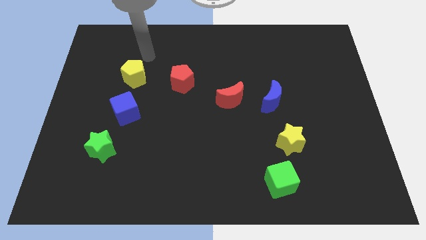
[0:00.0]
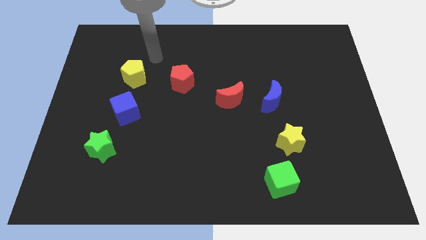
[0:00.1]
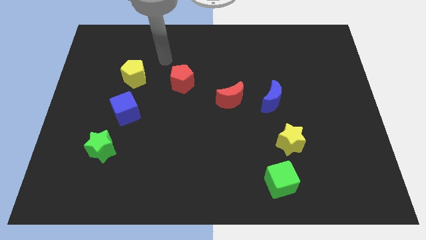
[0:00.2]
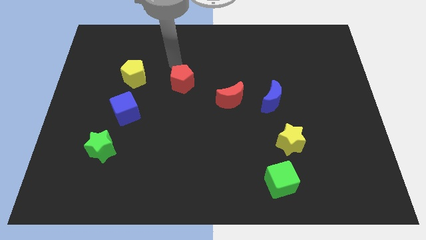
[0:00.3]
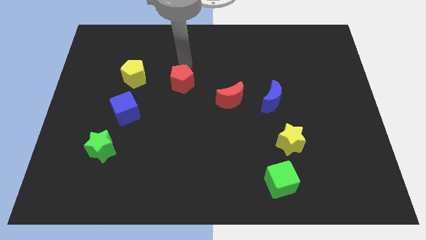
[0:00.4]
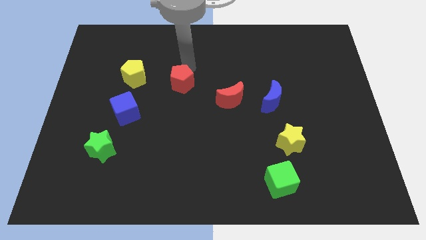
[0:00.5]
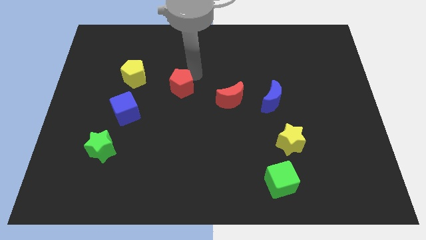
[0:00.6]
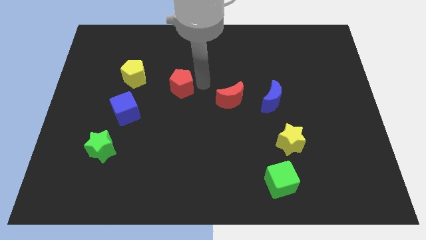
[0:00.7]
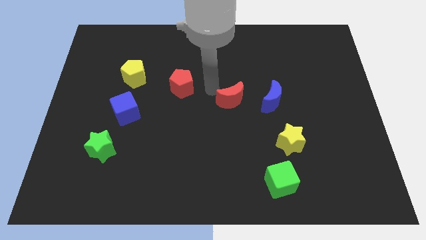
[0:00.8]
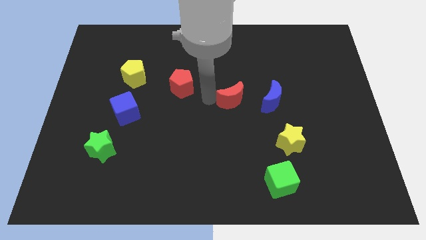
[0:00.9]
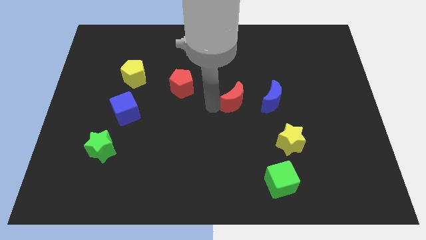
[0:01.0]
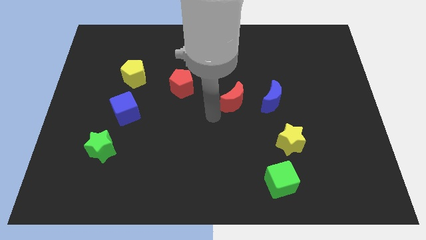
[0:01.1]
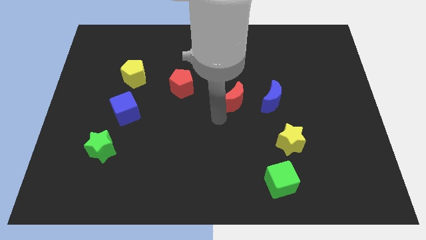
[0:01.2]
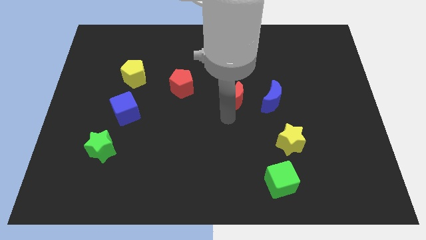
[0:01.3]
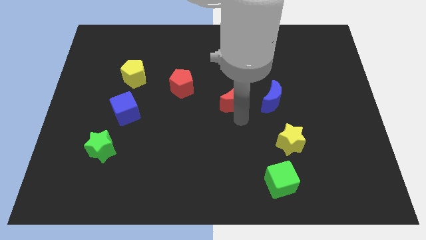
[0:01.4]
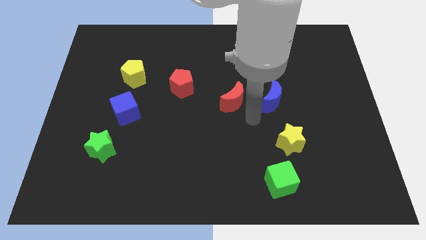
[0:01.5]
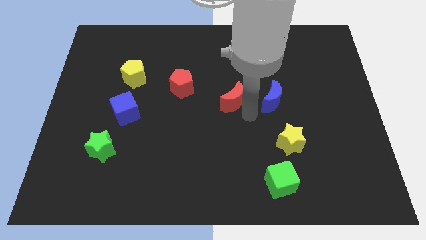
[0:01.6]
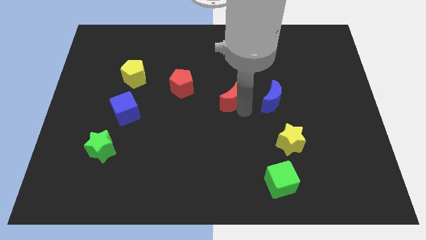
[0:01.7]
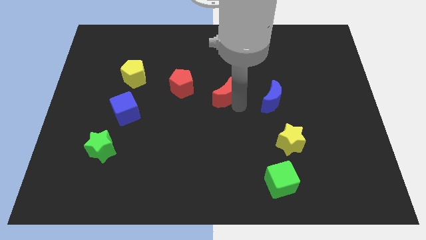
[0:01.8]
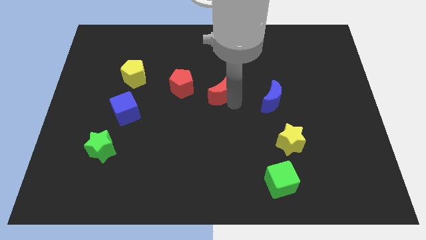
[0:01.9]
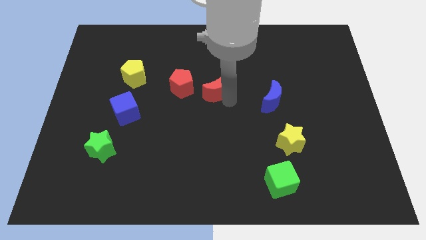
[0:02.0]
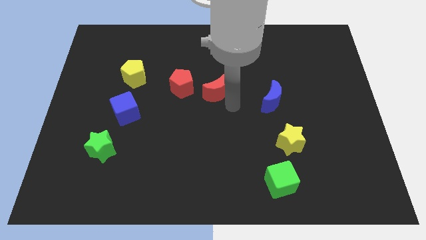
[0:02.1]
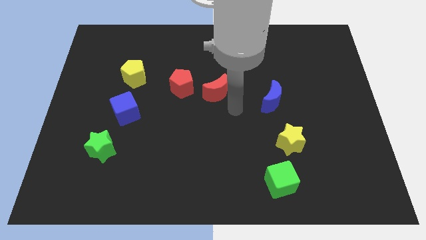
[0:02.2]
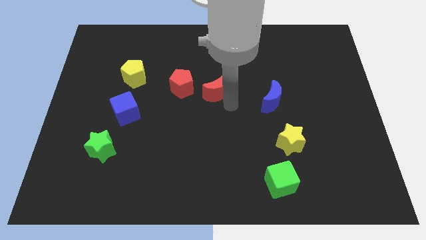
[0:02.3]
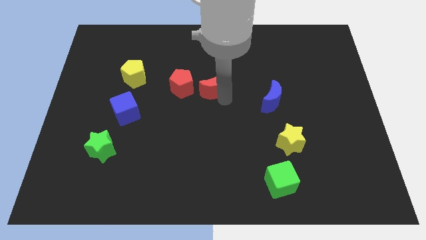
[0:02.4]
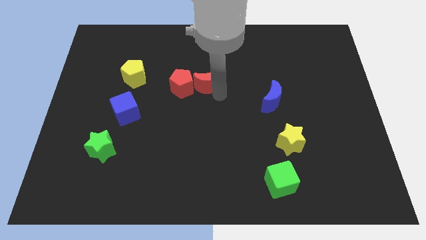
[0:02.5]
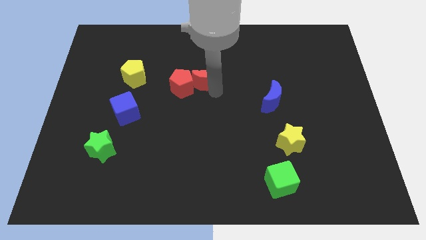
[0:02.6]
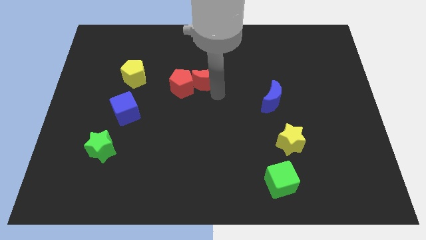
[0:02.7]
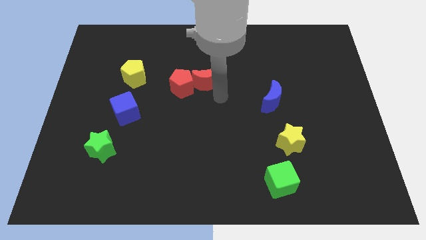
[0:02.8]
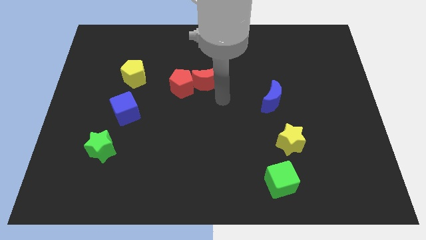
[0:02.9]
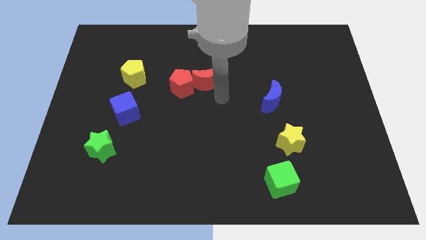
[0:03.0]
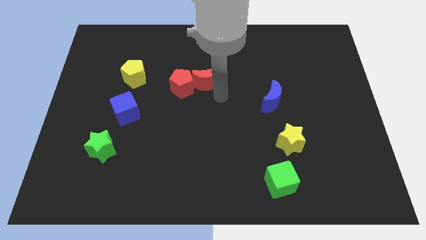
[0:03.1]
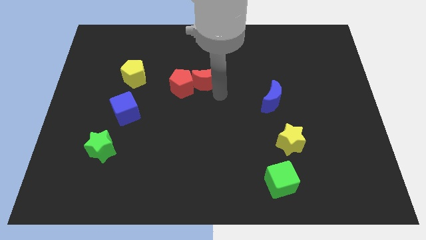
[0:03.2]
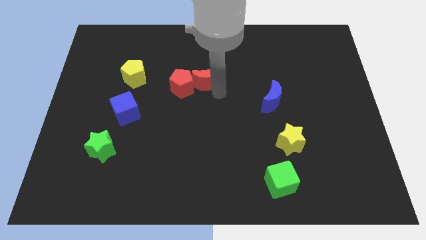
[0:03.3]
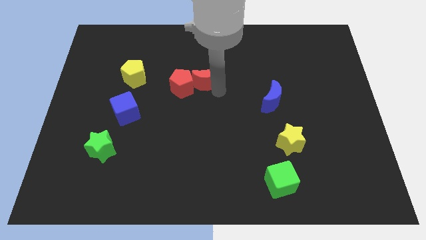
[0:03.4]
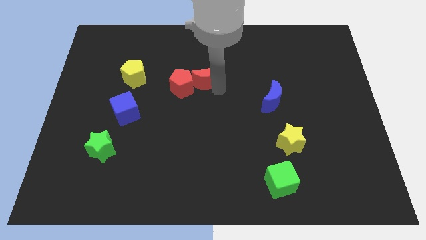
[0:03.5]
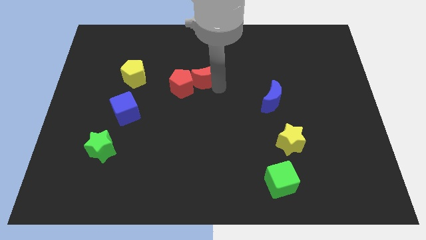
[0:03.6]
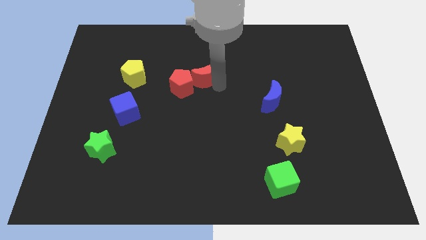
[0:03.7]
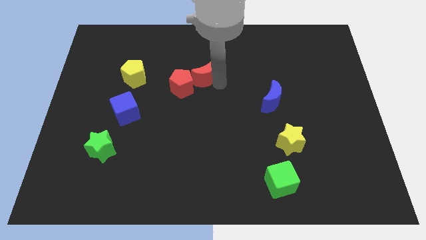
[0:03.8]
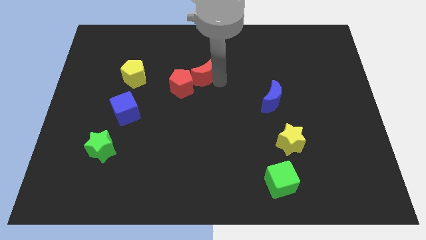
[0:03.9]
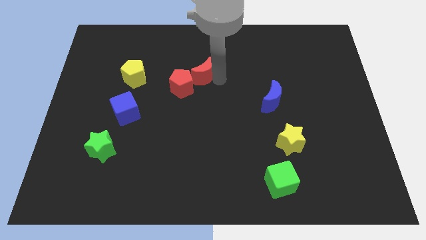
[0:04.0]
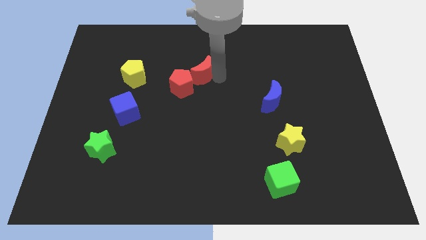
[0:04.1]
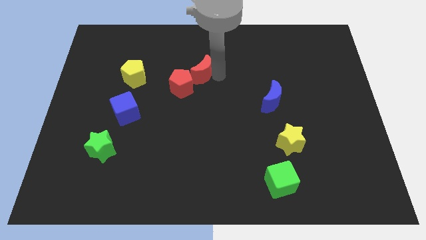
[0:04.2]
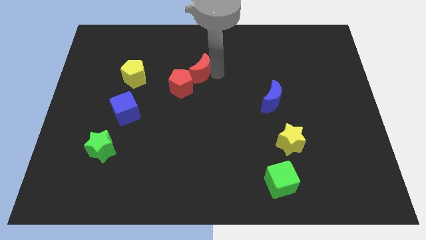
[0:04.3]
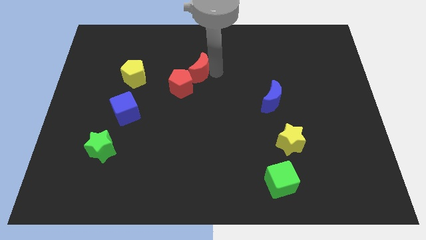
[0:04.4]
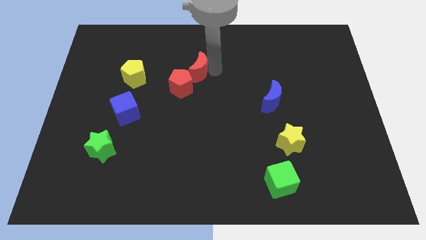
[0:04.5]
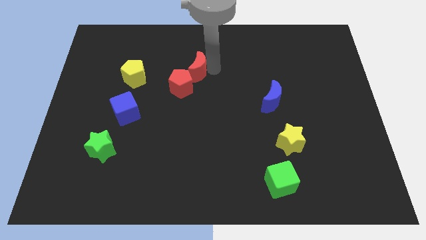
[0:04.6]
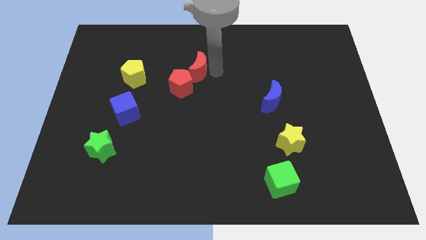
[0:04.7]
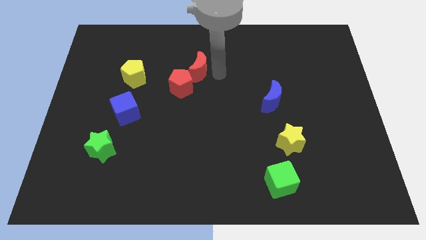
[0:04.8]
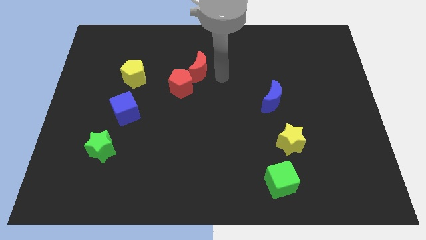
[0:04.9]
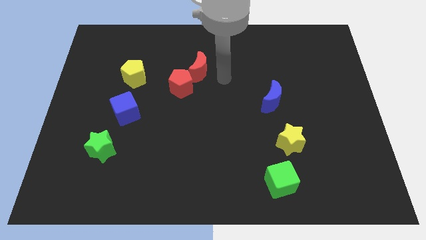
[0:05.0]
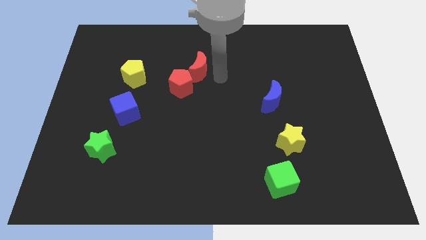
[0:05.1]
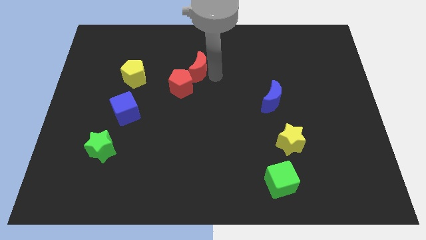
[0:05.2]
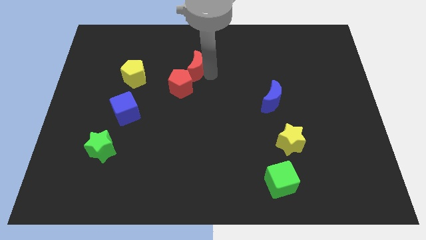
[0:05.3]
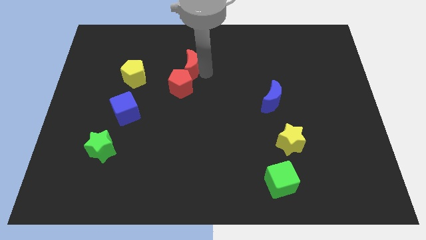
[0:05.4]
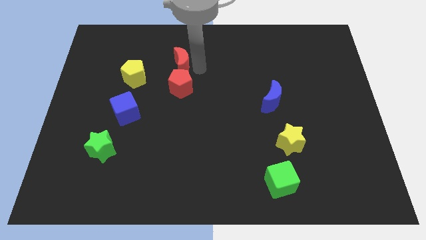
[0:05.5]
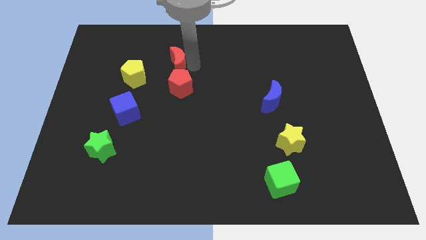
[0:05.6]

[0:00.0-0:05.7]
put the red moon to the top left of the red pentagon

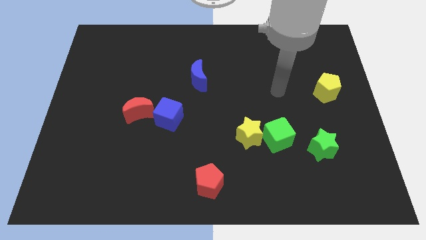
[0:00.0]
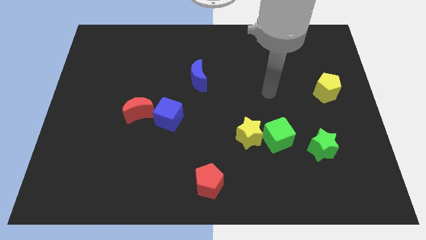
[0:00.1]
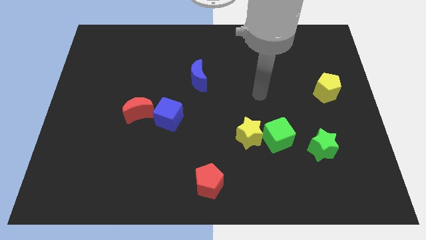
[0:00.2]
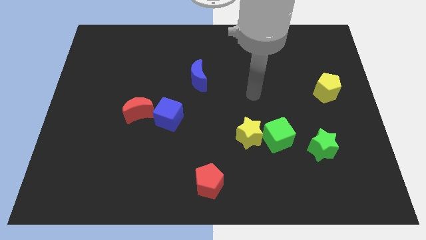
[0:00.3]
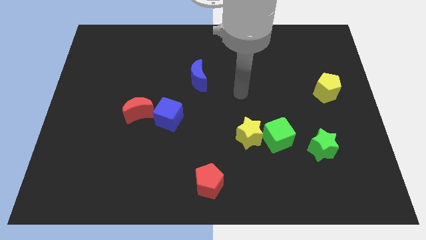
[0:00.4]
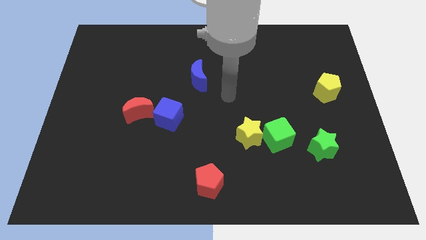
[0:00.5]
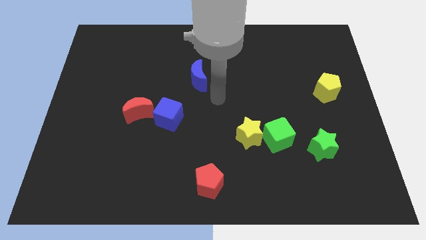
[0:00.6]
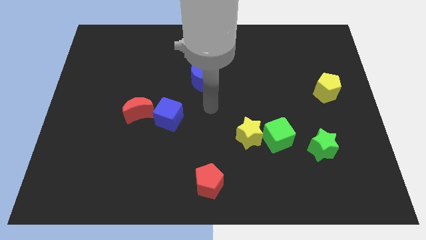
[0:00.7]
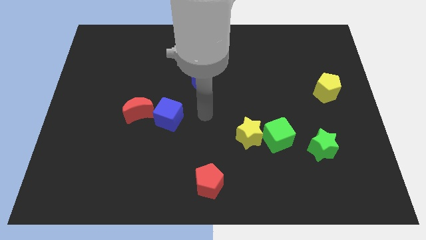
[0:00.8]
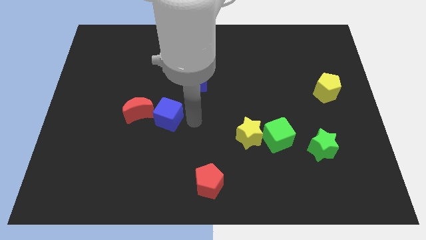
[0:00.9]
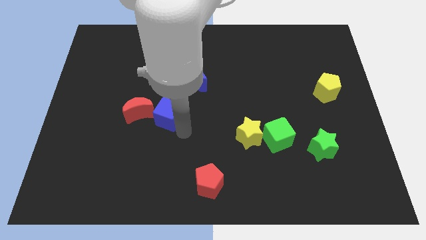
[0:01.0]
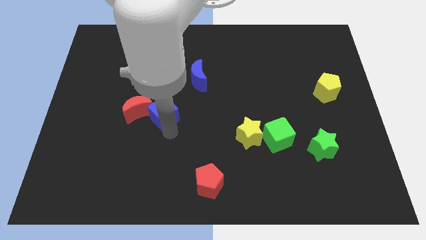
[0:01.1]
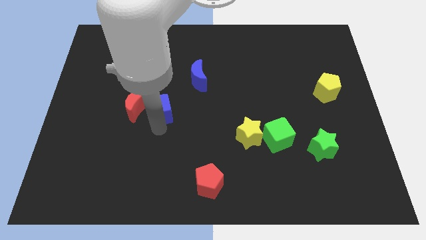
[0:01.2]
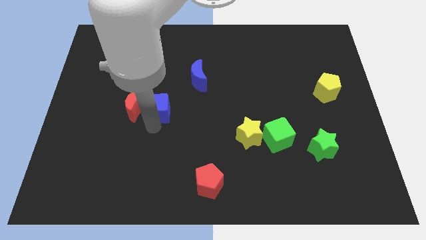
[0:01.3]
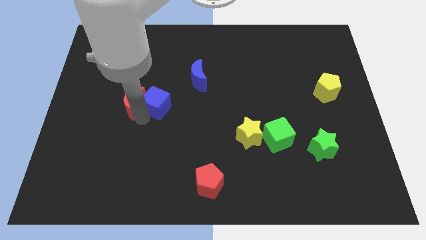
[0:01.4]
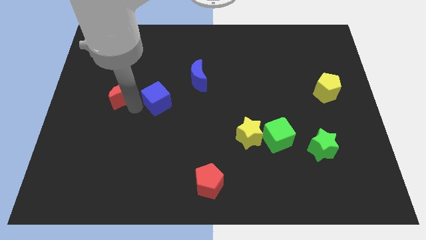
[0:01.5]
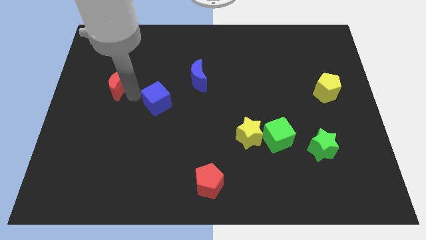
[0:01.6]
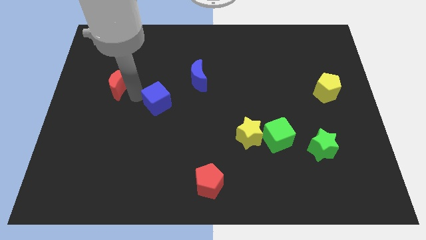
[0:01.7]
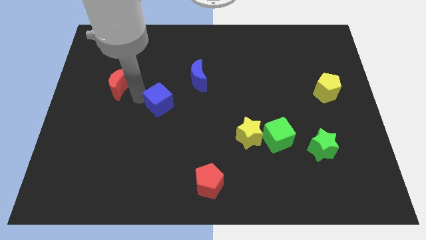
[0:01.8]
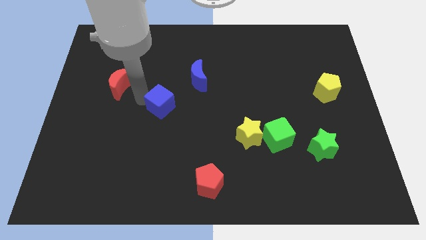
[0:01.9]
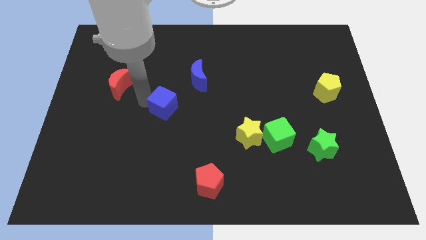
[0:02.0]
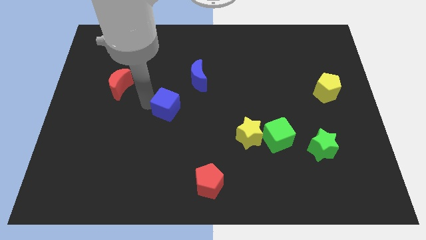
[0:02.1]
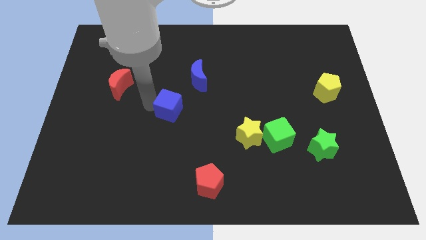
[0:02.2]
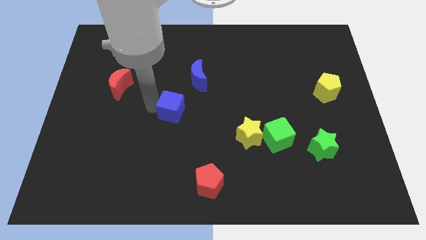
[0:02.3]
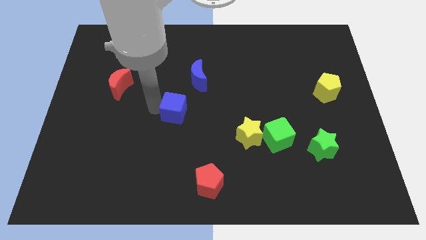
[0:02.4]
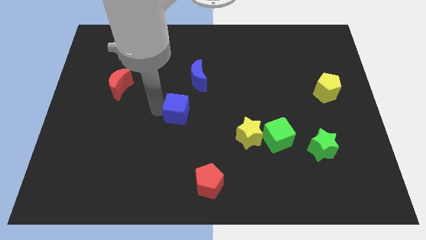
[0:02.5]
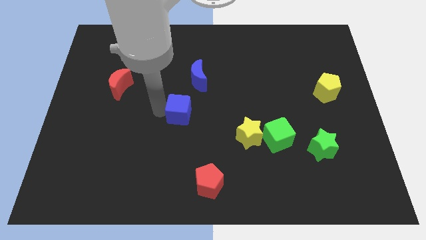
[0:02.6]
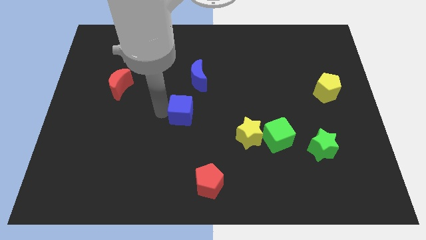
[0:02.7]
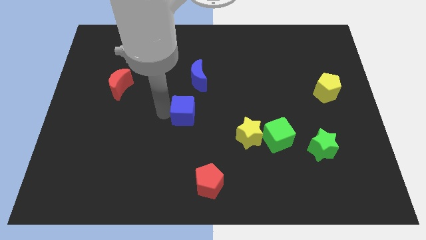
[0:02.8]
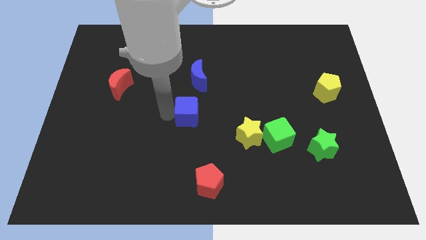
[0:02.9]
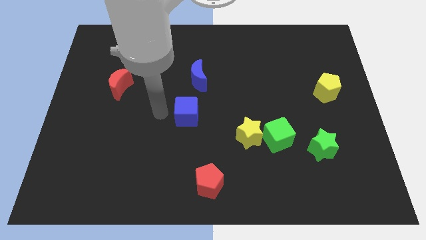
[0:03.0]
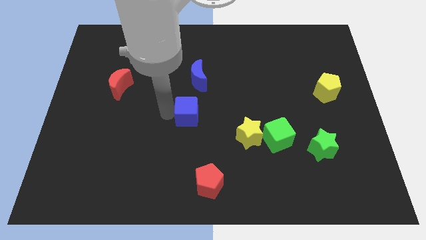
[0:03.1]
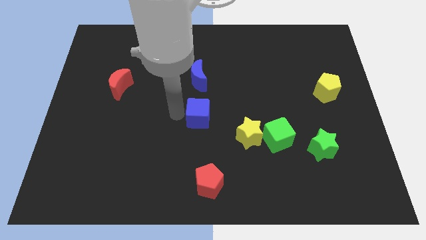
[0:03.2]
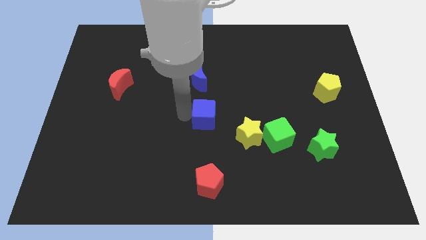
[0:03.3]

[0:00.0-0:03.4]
slide the blue cube diagonally up and to the left of the yellow star
